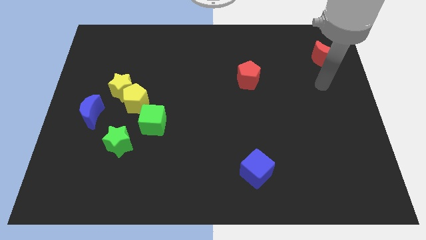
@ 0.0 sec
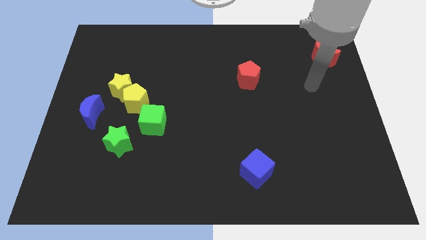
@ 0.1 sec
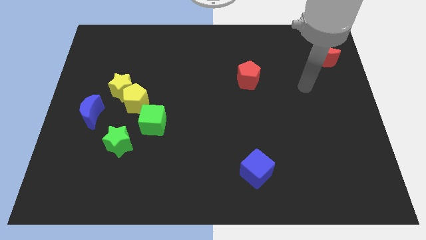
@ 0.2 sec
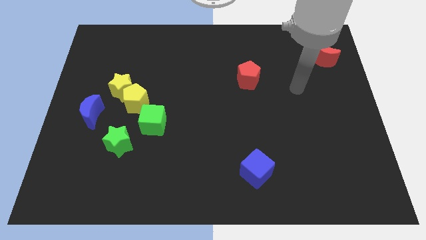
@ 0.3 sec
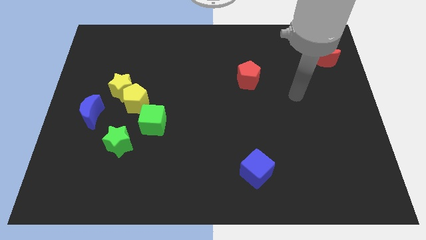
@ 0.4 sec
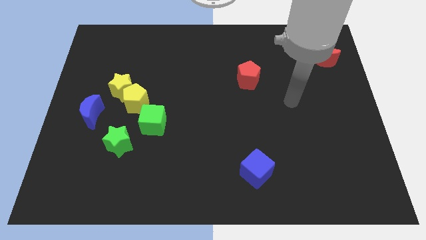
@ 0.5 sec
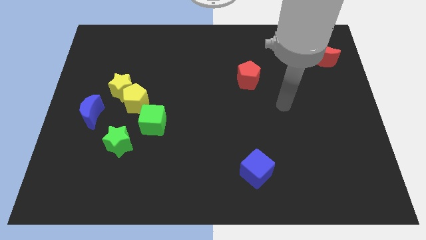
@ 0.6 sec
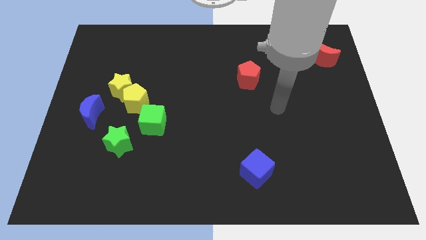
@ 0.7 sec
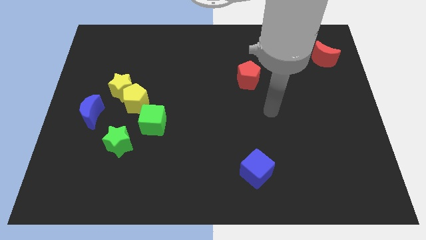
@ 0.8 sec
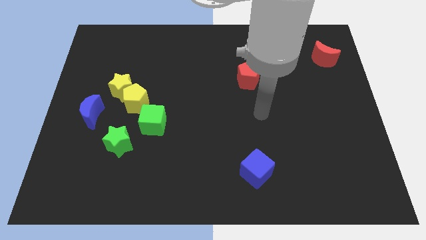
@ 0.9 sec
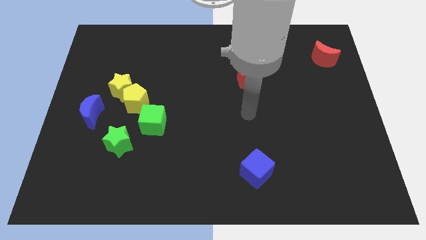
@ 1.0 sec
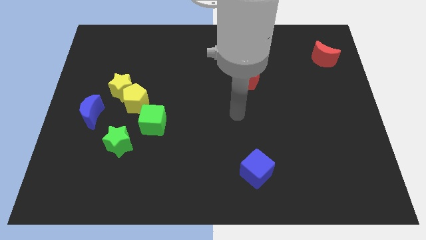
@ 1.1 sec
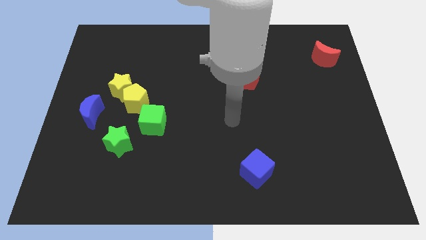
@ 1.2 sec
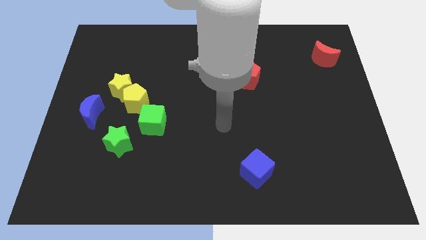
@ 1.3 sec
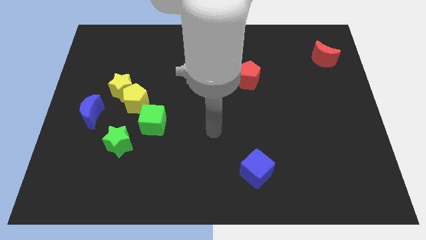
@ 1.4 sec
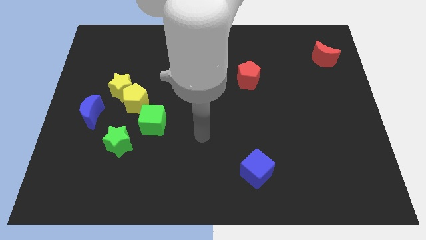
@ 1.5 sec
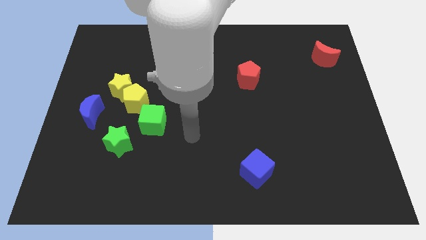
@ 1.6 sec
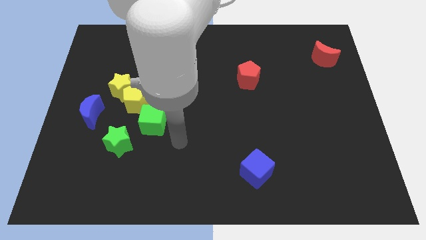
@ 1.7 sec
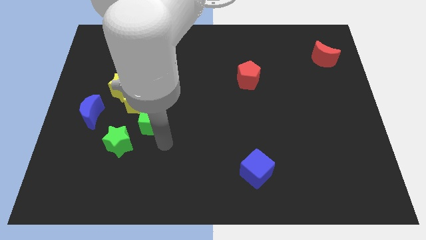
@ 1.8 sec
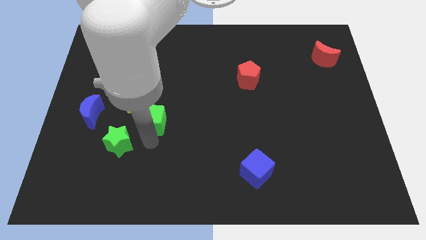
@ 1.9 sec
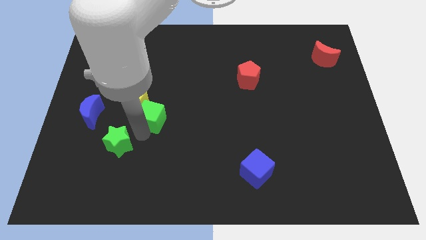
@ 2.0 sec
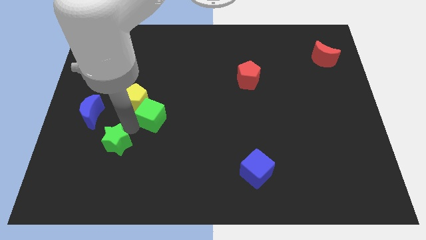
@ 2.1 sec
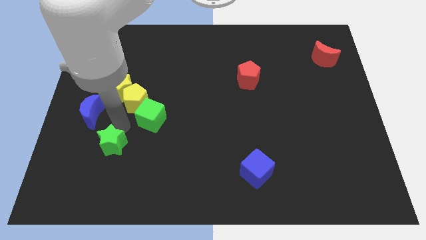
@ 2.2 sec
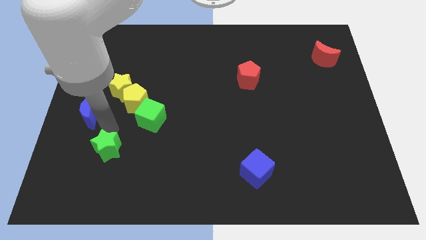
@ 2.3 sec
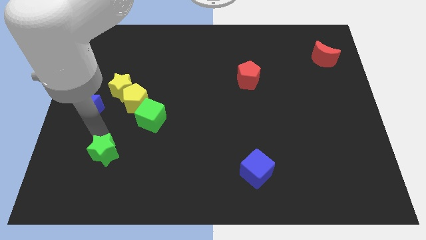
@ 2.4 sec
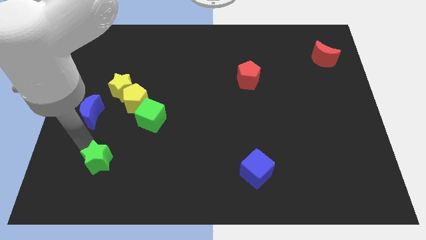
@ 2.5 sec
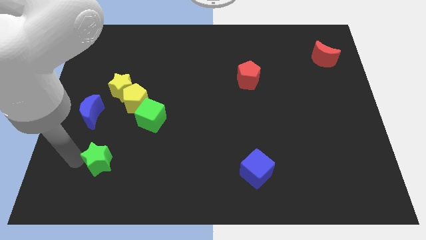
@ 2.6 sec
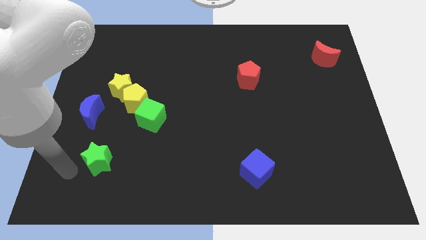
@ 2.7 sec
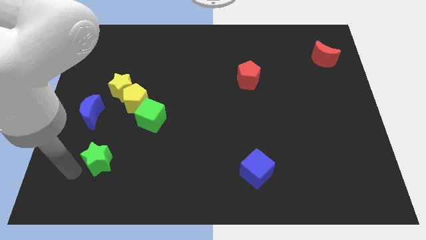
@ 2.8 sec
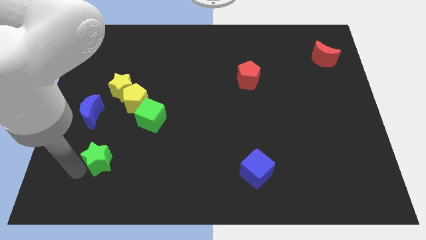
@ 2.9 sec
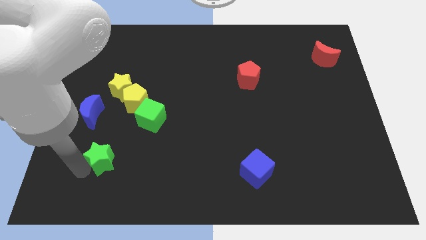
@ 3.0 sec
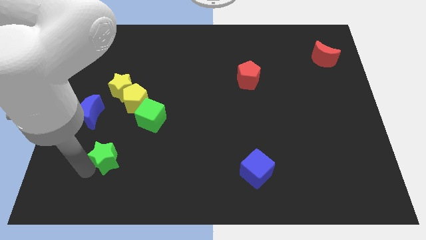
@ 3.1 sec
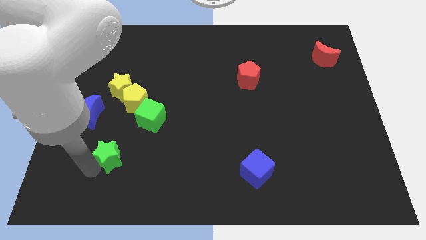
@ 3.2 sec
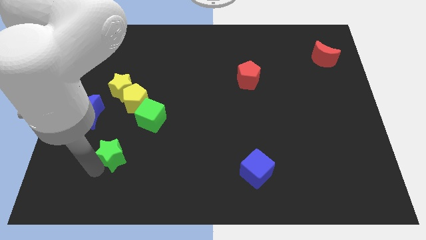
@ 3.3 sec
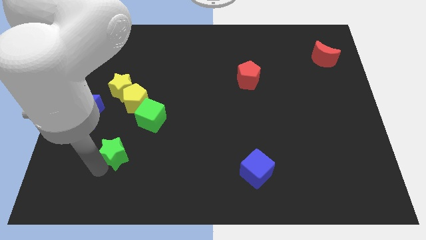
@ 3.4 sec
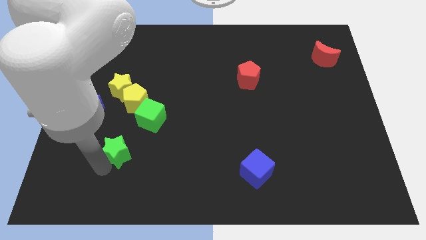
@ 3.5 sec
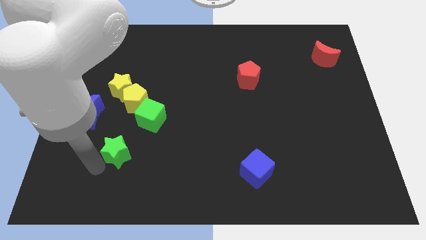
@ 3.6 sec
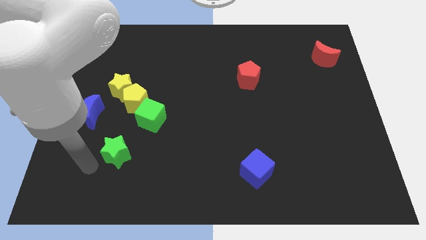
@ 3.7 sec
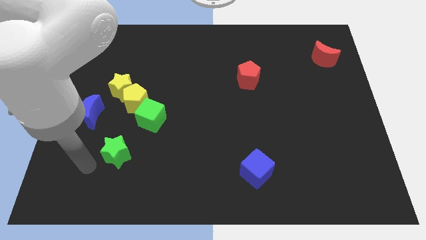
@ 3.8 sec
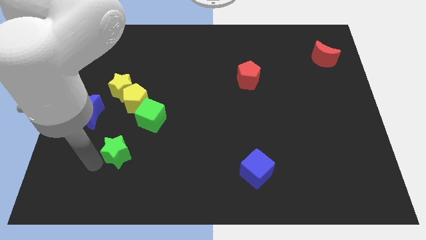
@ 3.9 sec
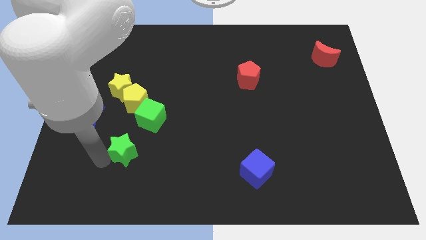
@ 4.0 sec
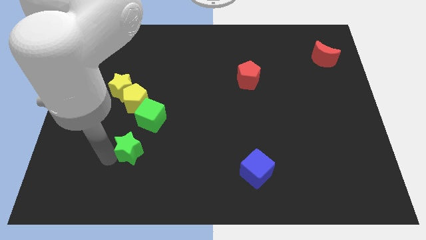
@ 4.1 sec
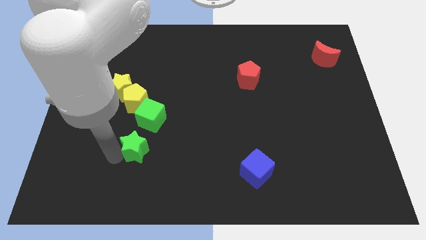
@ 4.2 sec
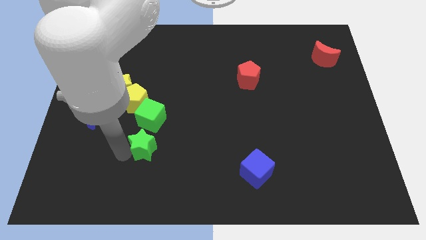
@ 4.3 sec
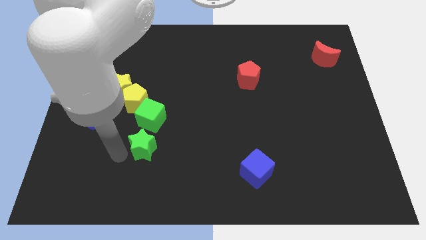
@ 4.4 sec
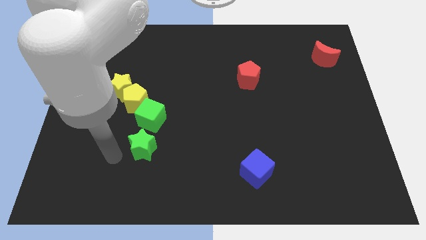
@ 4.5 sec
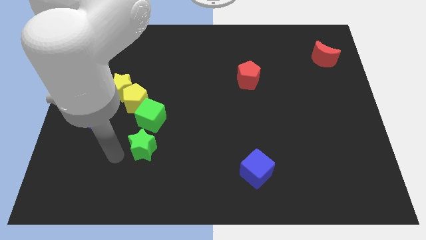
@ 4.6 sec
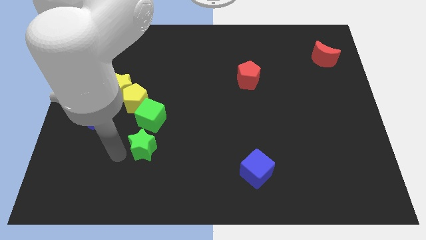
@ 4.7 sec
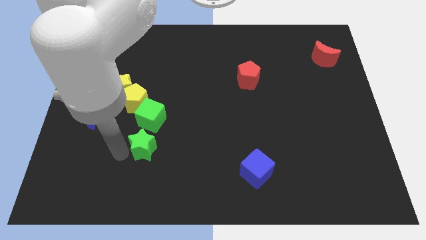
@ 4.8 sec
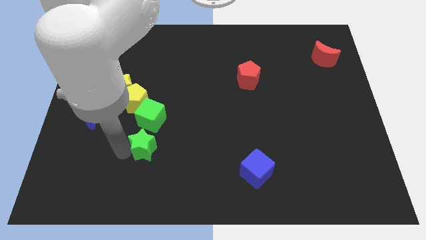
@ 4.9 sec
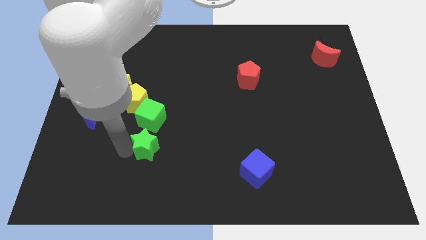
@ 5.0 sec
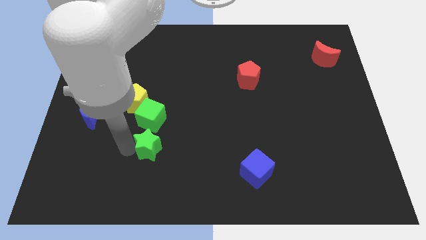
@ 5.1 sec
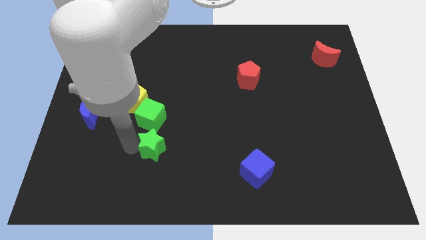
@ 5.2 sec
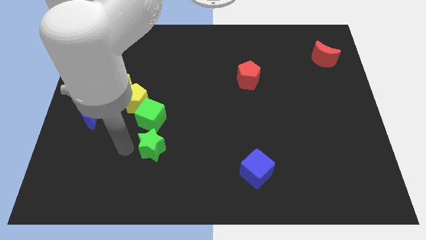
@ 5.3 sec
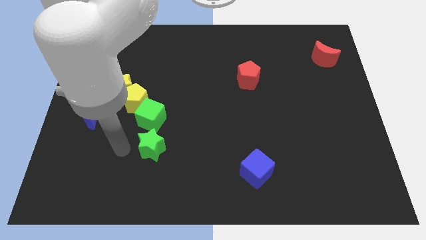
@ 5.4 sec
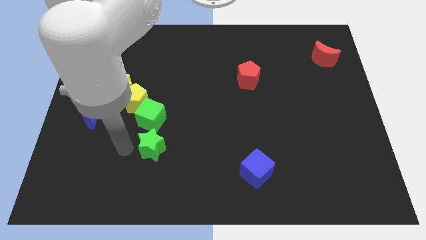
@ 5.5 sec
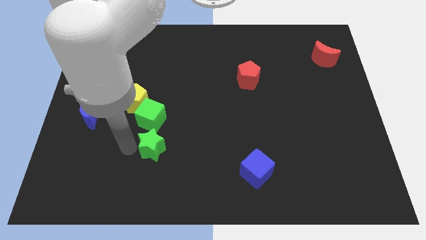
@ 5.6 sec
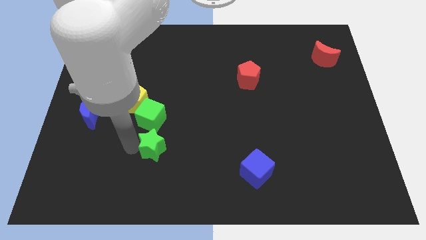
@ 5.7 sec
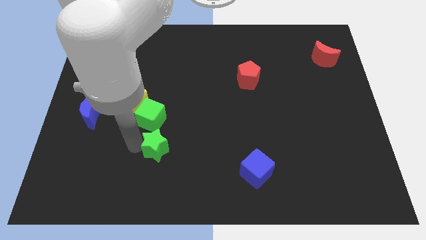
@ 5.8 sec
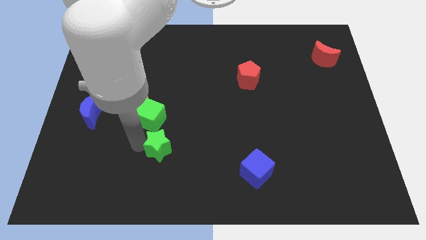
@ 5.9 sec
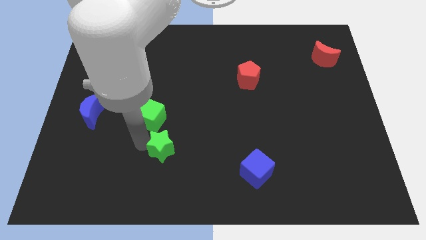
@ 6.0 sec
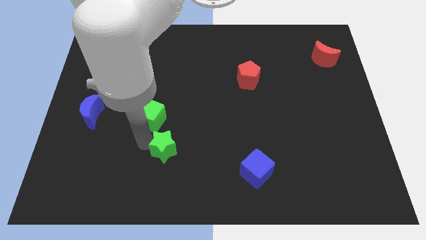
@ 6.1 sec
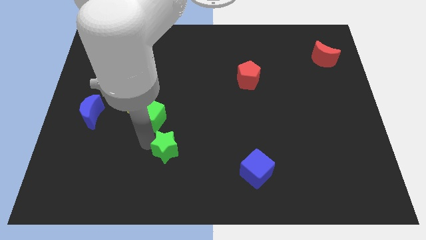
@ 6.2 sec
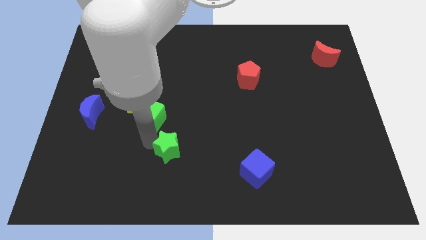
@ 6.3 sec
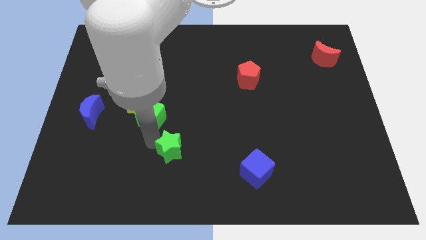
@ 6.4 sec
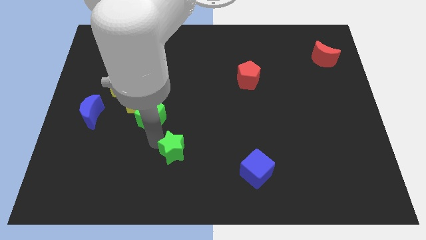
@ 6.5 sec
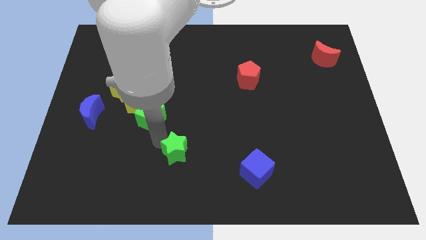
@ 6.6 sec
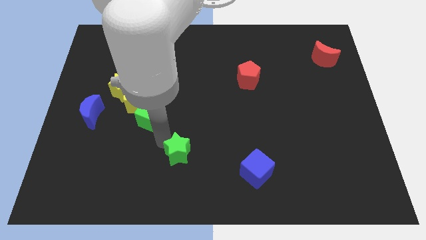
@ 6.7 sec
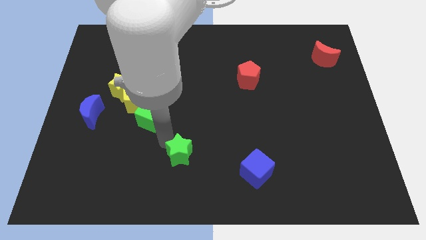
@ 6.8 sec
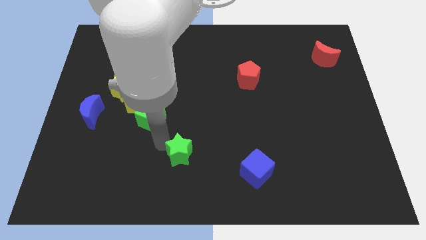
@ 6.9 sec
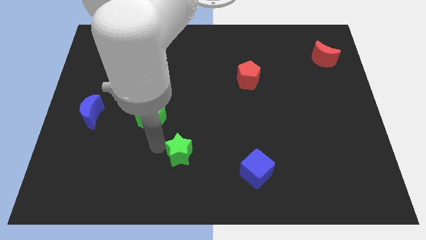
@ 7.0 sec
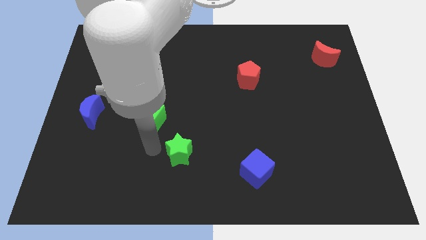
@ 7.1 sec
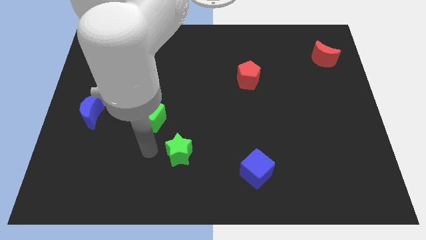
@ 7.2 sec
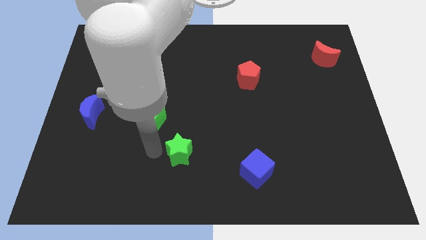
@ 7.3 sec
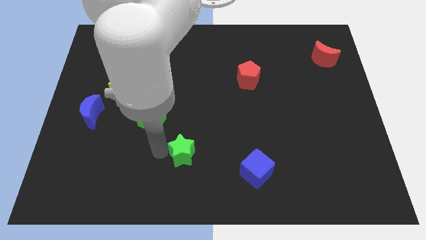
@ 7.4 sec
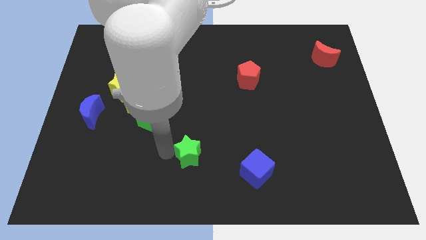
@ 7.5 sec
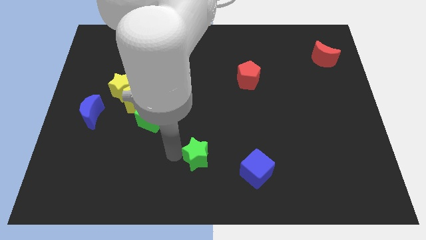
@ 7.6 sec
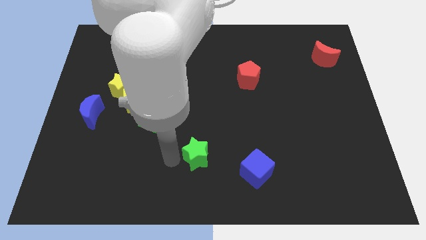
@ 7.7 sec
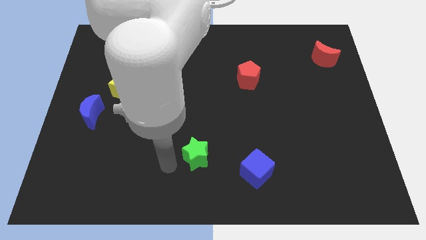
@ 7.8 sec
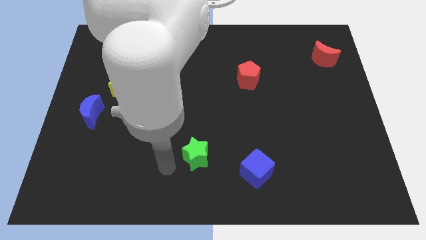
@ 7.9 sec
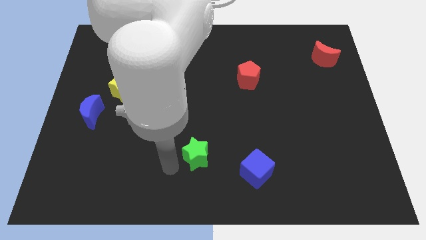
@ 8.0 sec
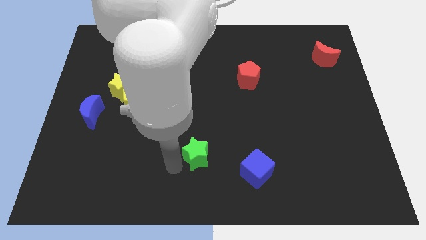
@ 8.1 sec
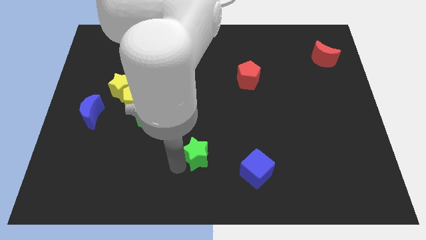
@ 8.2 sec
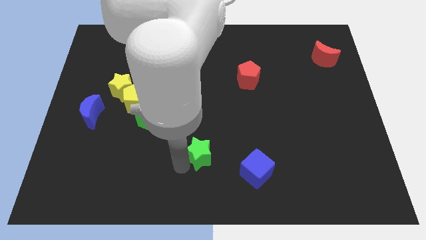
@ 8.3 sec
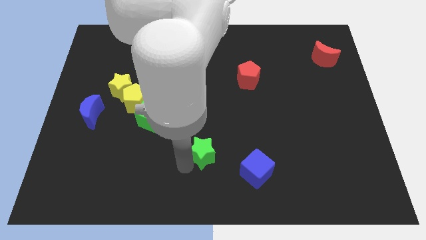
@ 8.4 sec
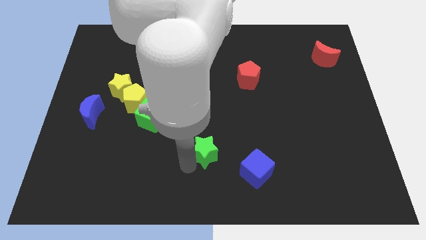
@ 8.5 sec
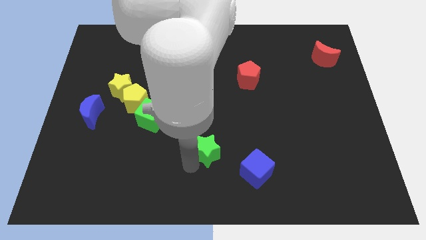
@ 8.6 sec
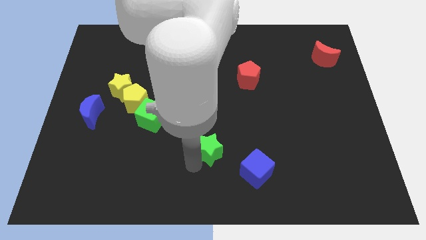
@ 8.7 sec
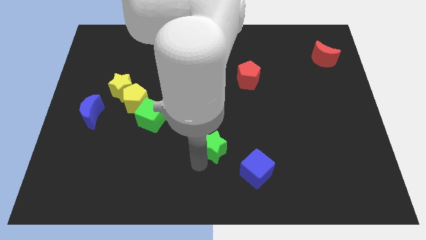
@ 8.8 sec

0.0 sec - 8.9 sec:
slide the green star right
